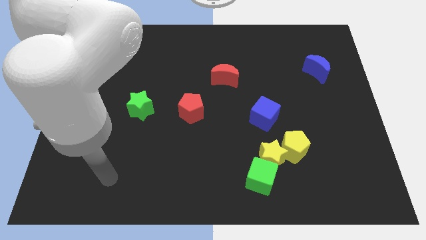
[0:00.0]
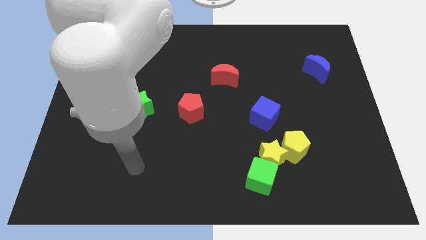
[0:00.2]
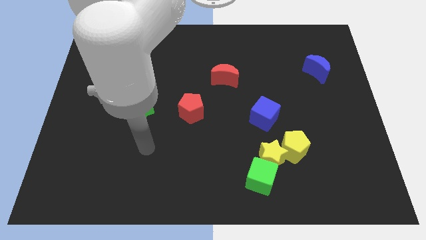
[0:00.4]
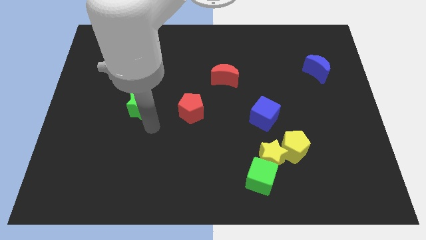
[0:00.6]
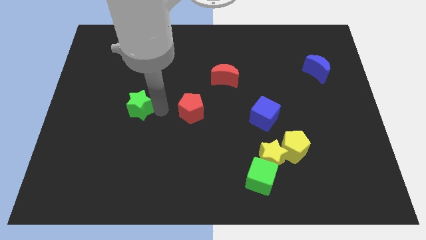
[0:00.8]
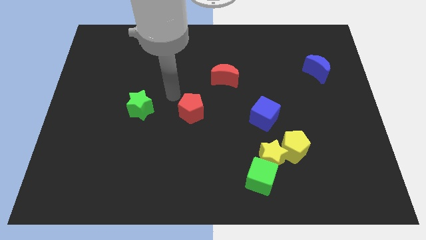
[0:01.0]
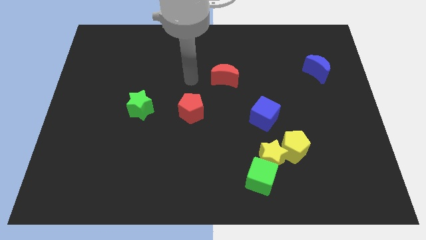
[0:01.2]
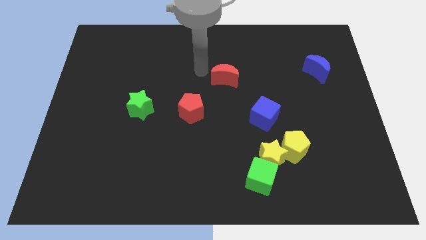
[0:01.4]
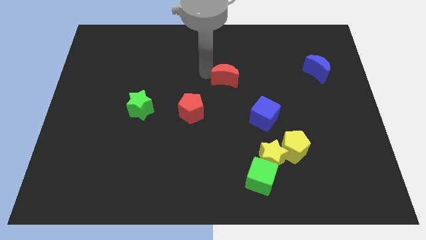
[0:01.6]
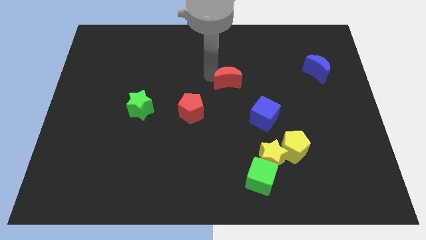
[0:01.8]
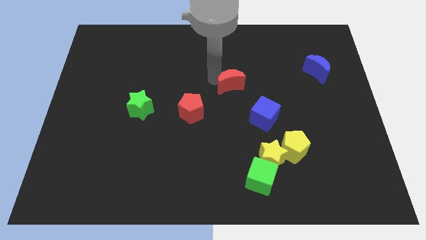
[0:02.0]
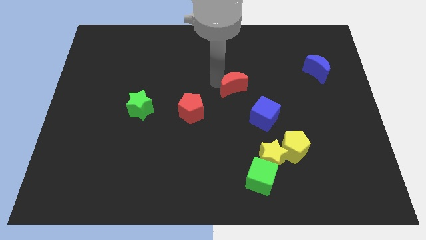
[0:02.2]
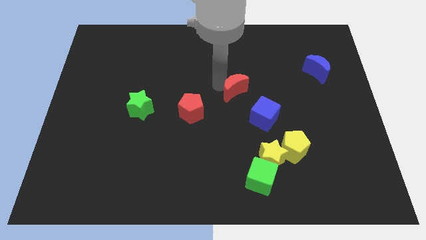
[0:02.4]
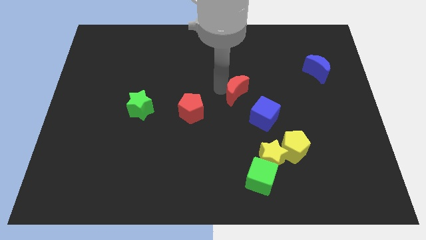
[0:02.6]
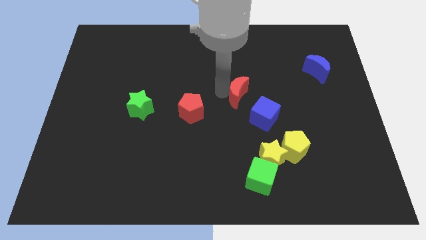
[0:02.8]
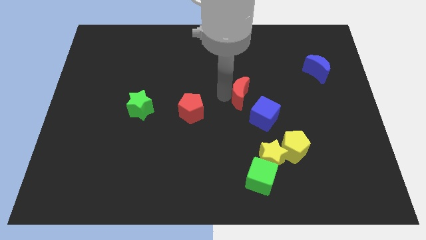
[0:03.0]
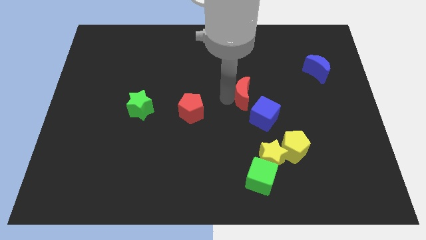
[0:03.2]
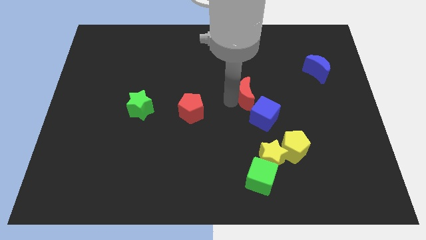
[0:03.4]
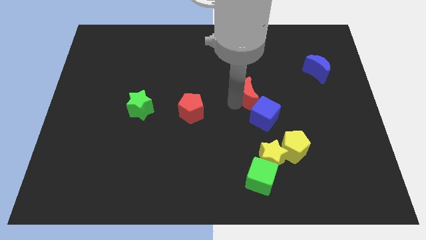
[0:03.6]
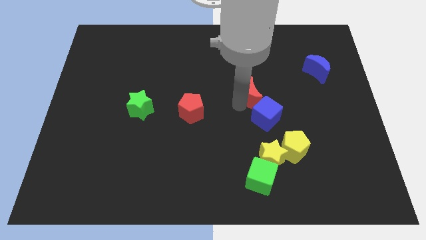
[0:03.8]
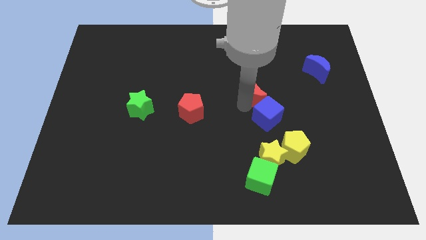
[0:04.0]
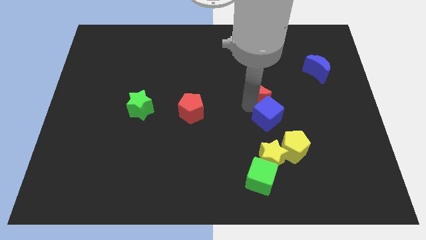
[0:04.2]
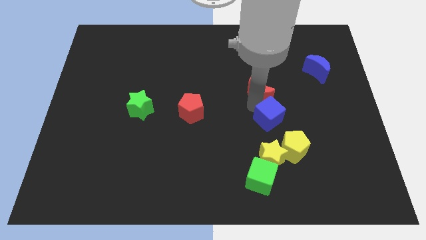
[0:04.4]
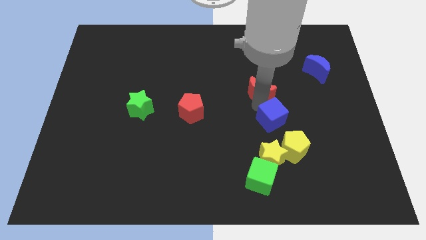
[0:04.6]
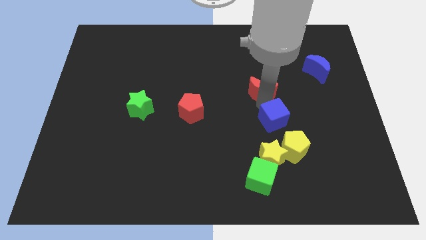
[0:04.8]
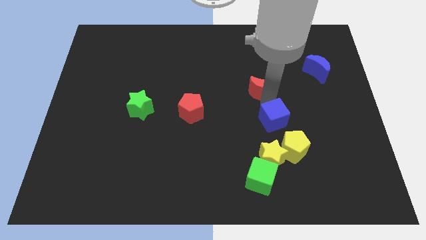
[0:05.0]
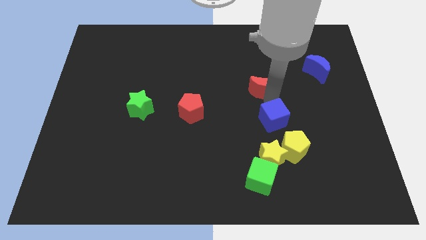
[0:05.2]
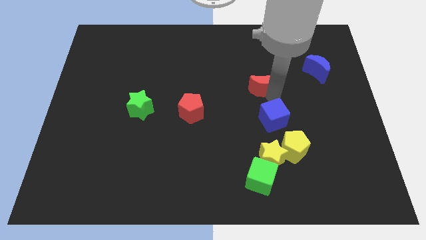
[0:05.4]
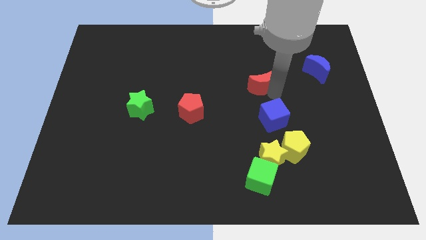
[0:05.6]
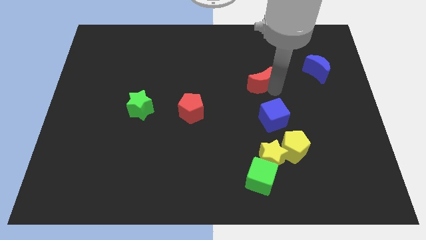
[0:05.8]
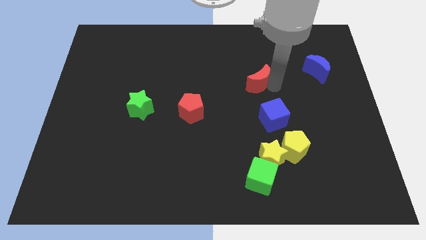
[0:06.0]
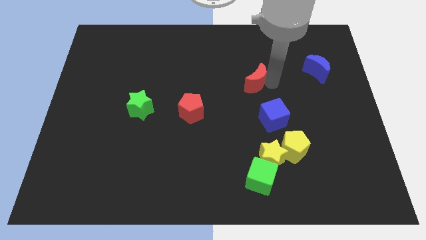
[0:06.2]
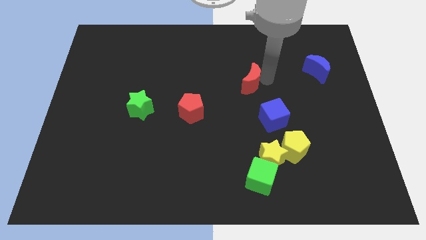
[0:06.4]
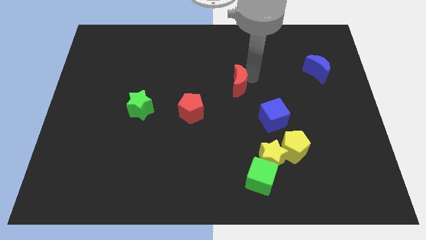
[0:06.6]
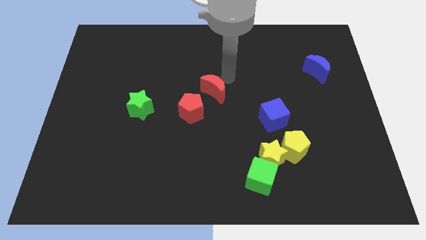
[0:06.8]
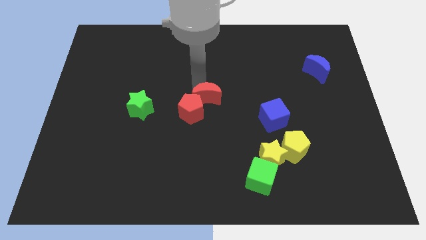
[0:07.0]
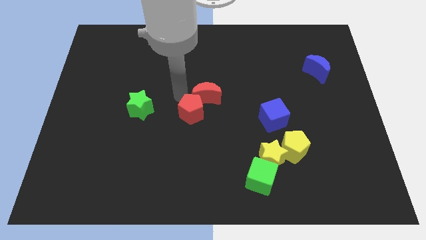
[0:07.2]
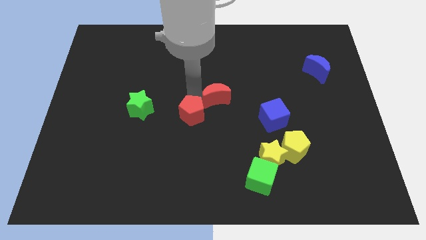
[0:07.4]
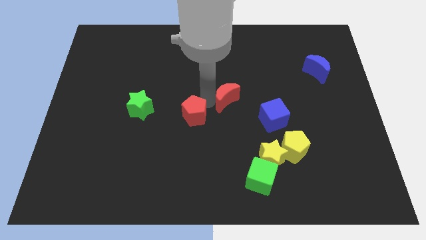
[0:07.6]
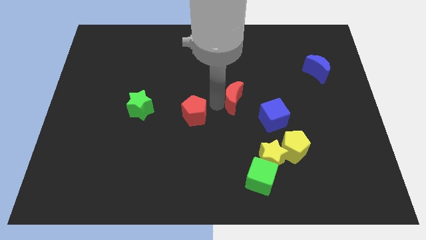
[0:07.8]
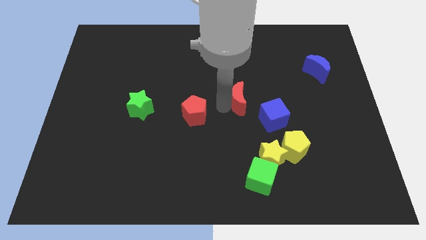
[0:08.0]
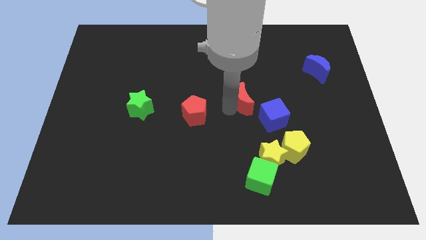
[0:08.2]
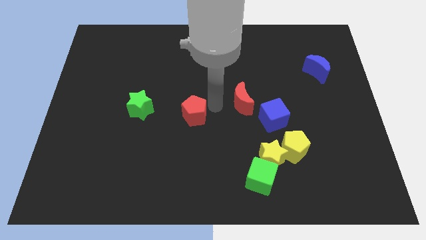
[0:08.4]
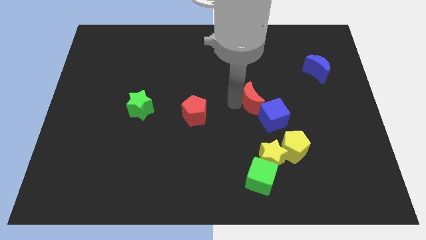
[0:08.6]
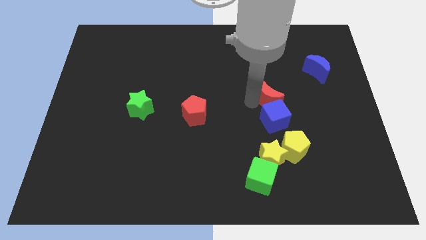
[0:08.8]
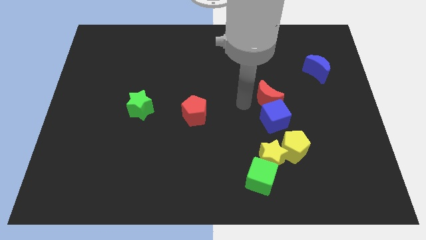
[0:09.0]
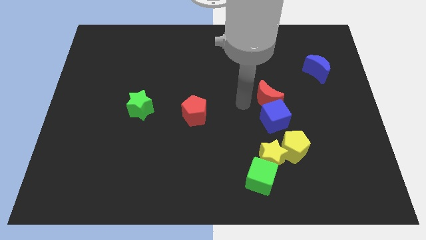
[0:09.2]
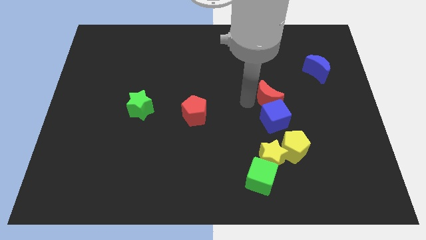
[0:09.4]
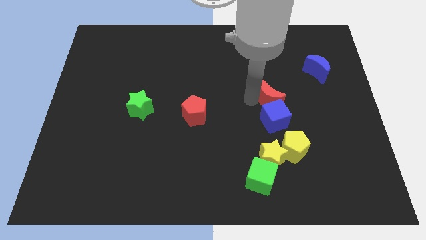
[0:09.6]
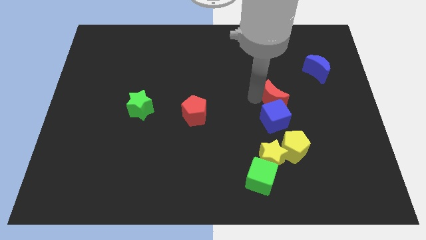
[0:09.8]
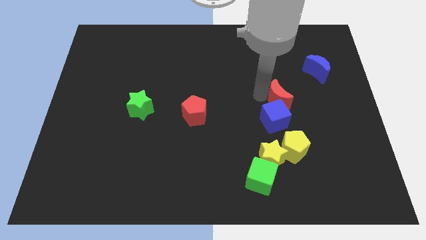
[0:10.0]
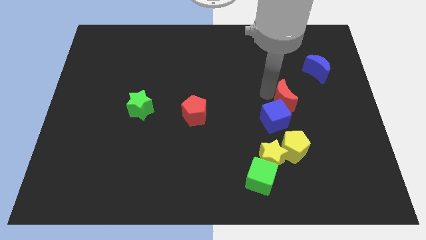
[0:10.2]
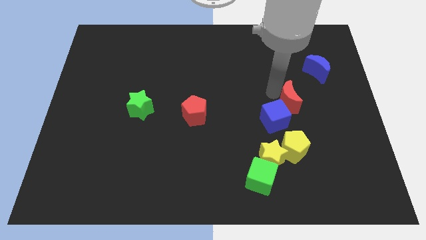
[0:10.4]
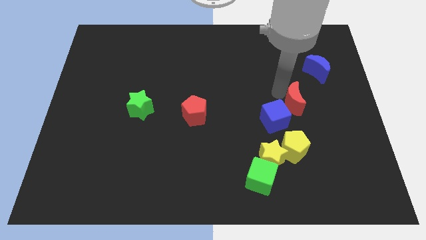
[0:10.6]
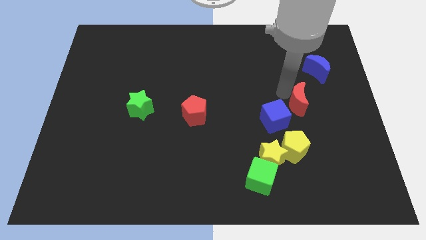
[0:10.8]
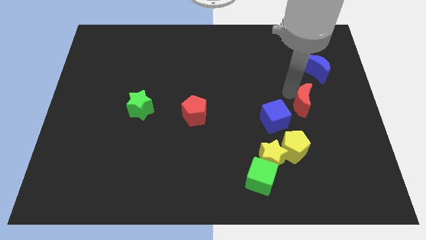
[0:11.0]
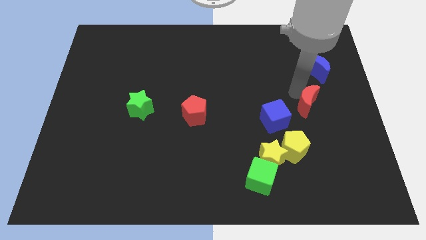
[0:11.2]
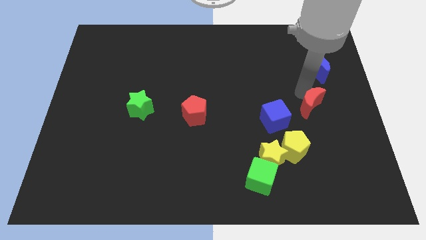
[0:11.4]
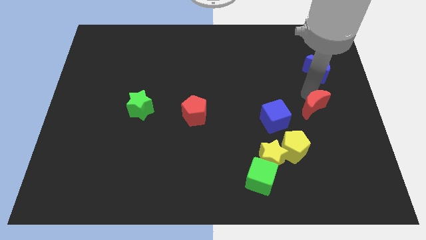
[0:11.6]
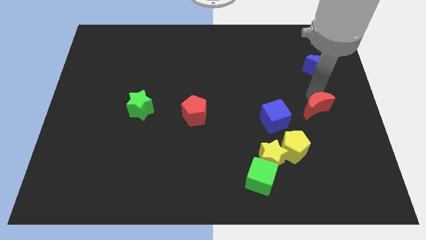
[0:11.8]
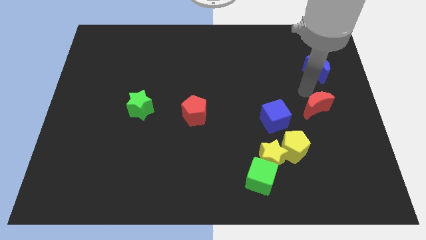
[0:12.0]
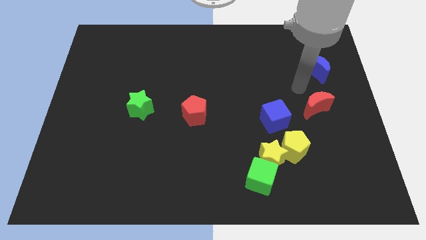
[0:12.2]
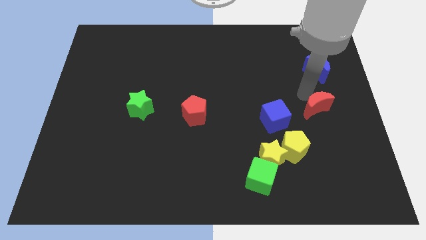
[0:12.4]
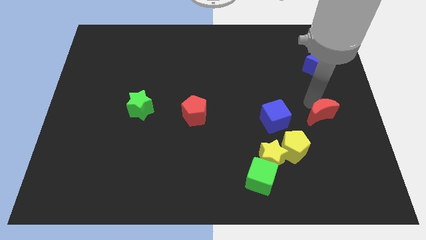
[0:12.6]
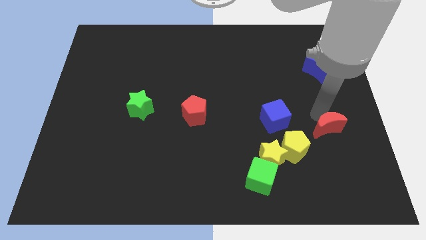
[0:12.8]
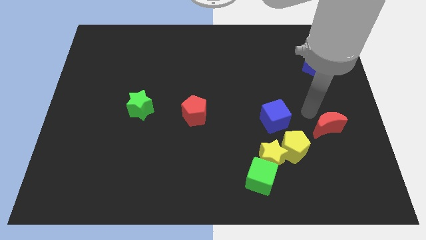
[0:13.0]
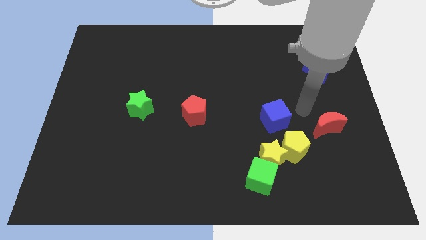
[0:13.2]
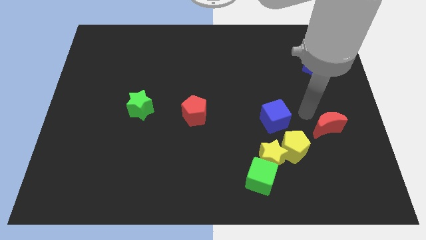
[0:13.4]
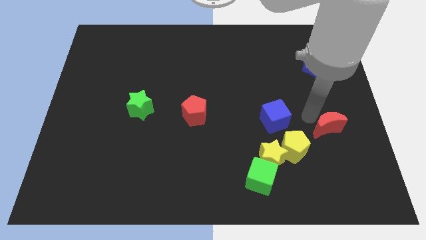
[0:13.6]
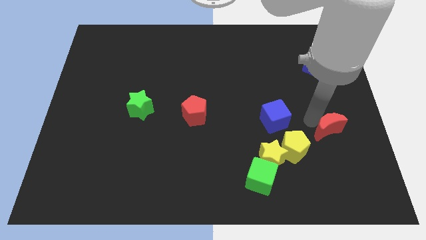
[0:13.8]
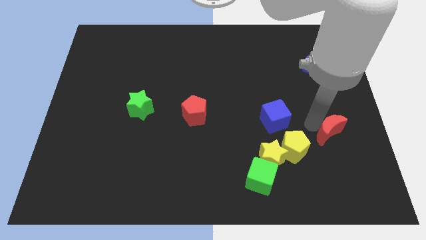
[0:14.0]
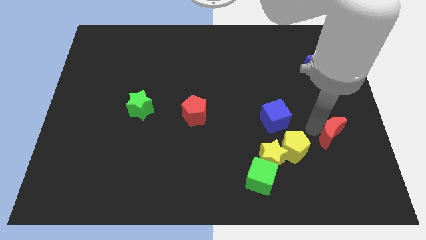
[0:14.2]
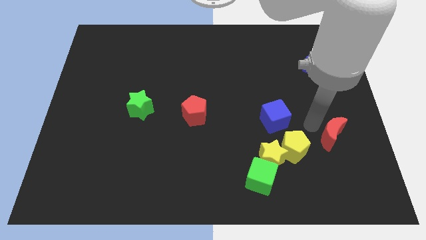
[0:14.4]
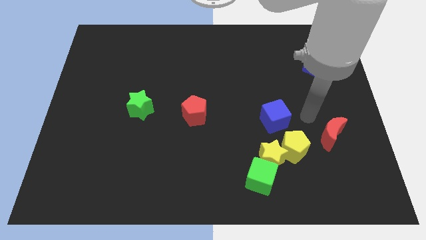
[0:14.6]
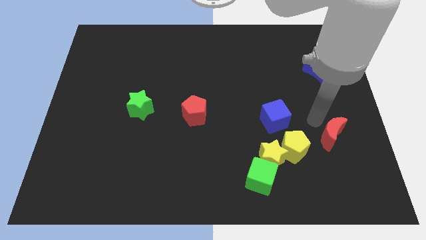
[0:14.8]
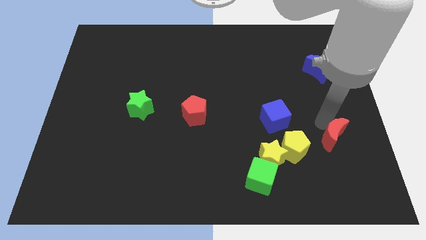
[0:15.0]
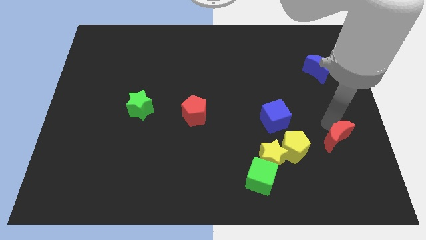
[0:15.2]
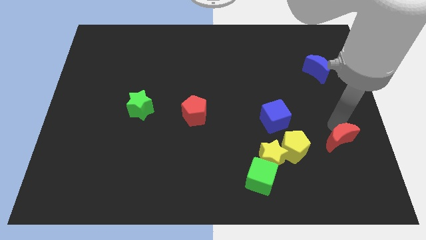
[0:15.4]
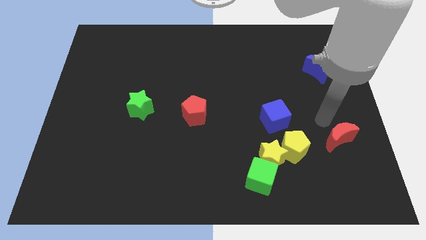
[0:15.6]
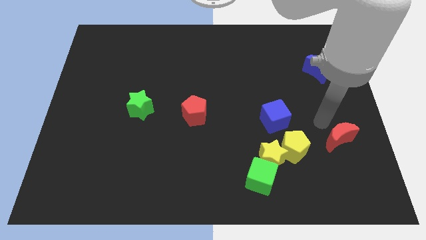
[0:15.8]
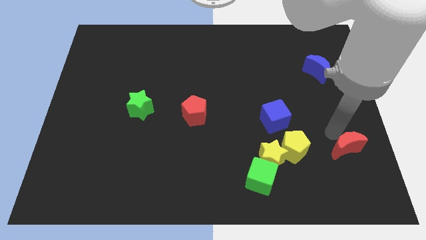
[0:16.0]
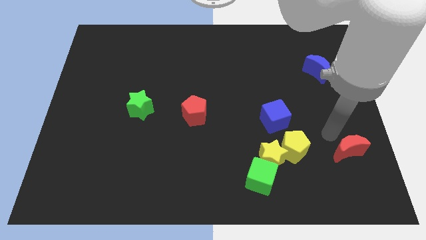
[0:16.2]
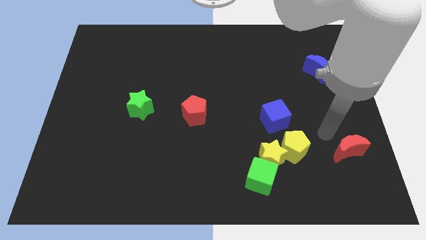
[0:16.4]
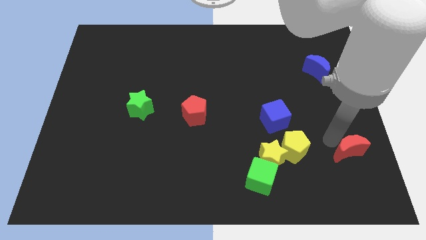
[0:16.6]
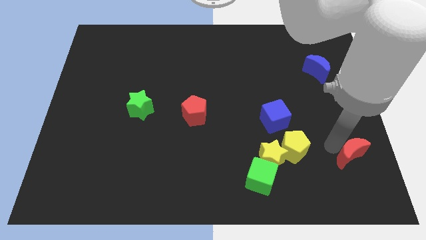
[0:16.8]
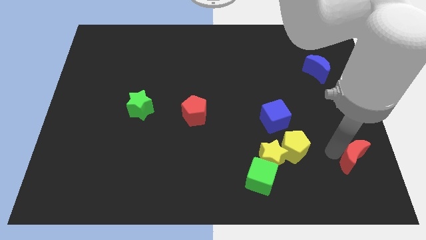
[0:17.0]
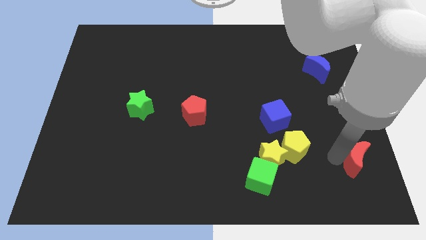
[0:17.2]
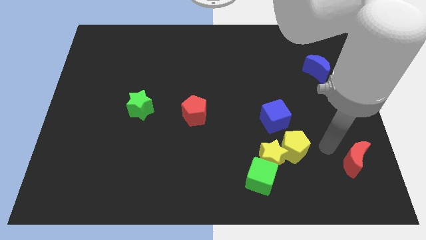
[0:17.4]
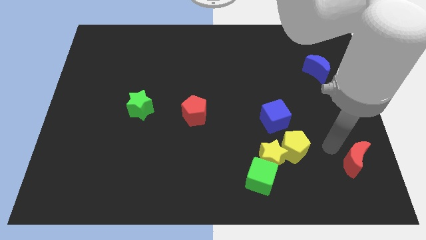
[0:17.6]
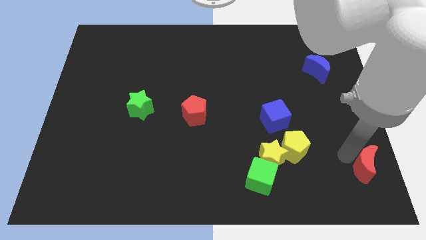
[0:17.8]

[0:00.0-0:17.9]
slide the red moon to the lower right corner
